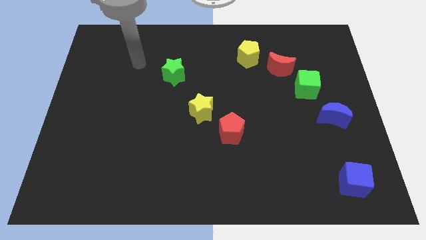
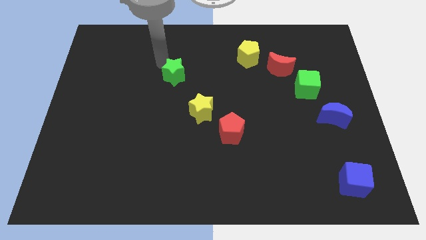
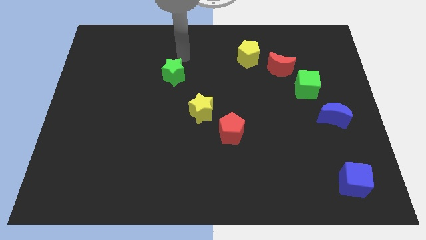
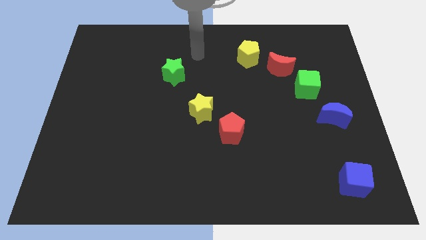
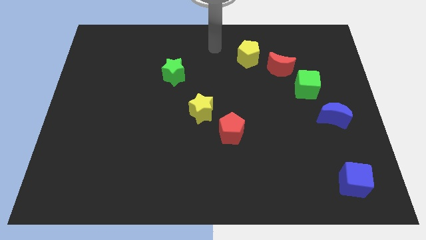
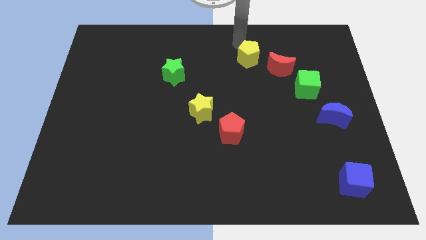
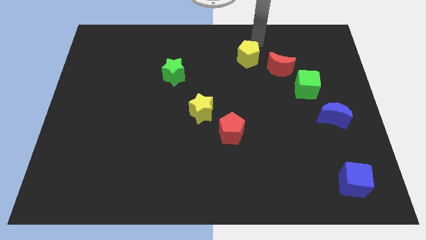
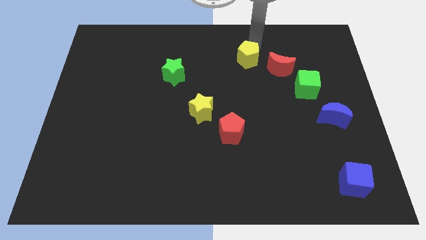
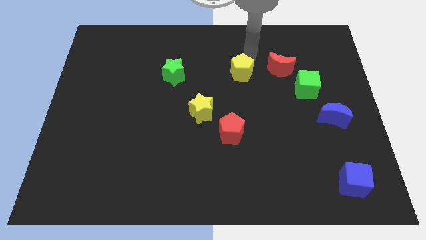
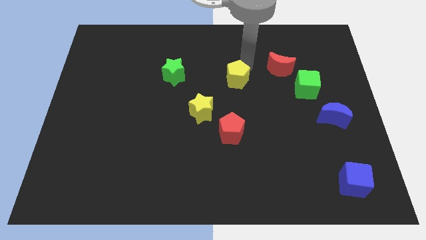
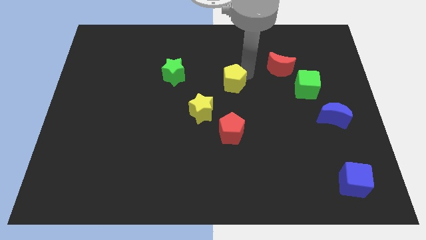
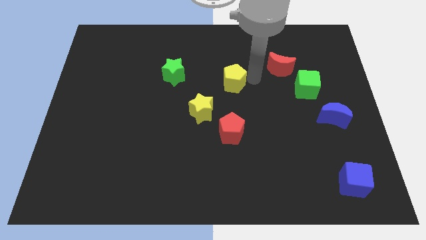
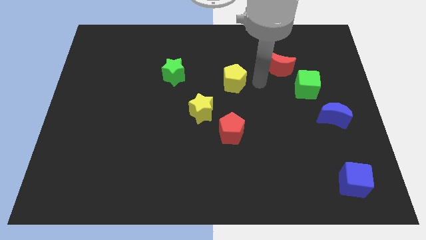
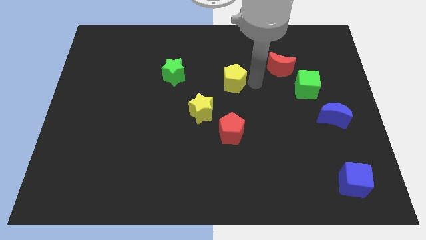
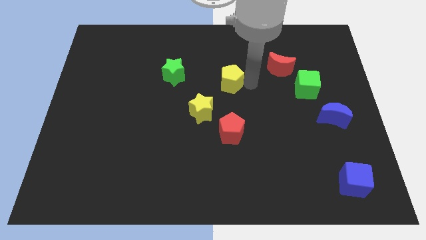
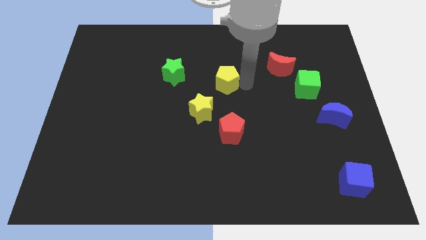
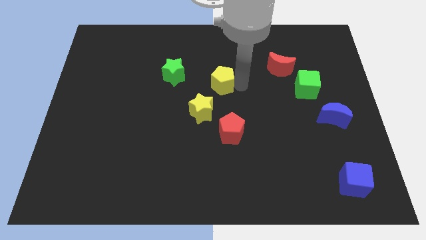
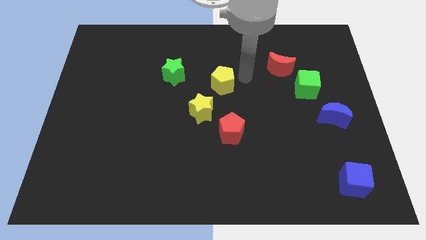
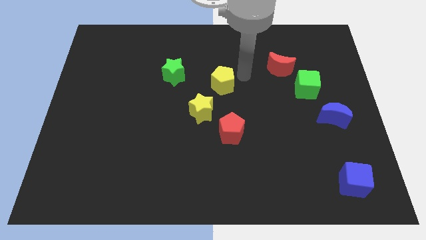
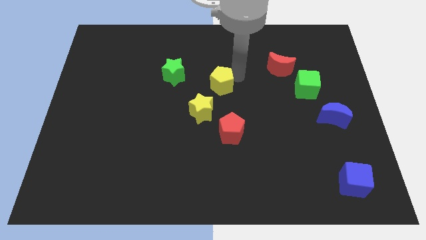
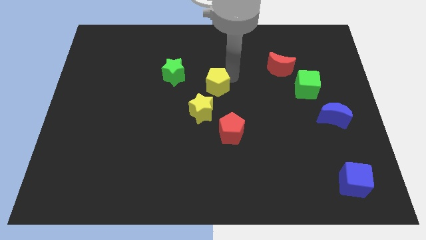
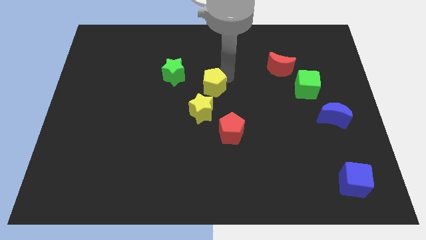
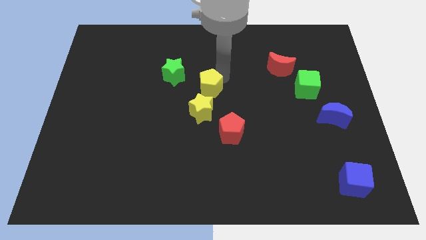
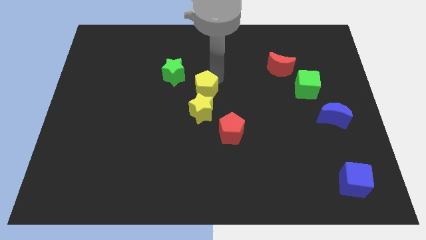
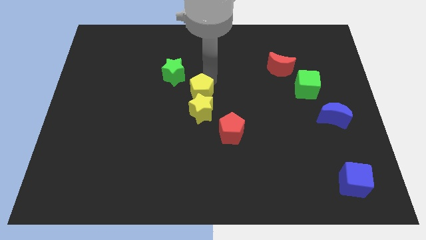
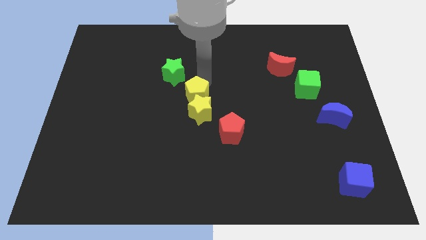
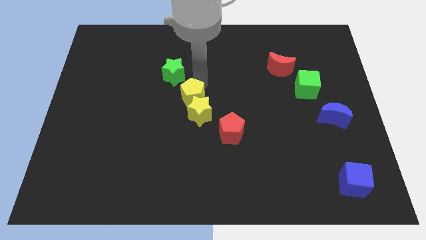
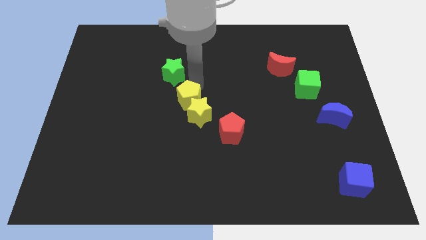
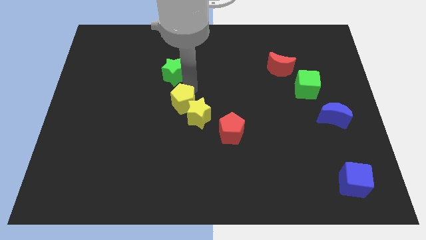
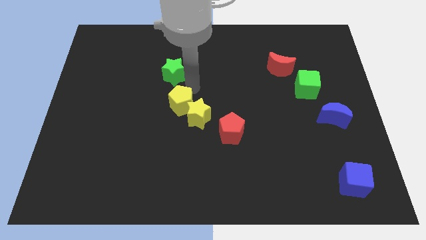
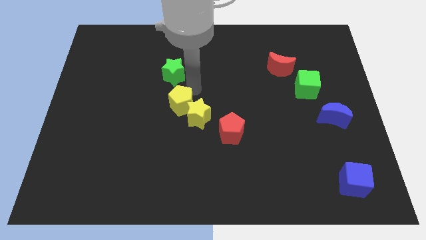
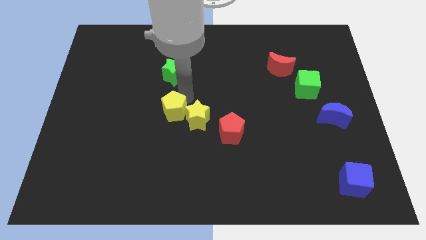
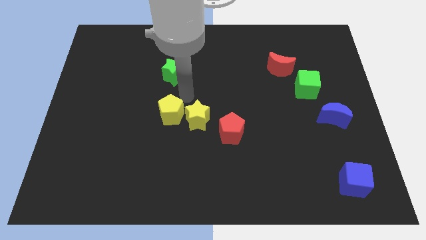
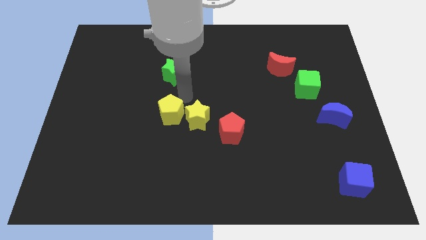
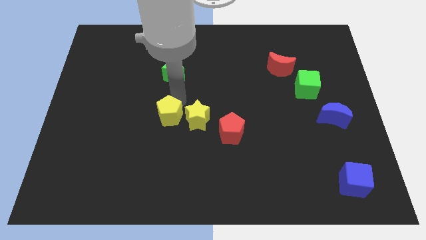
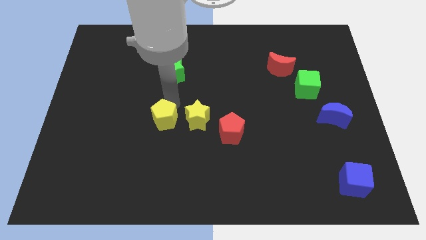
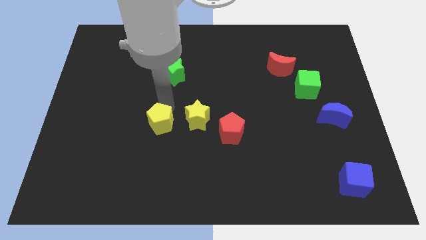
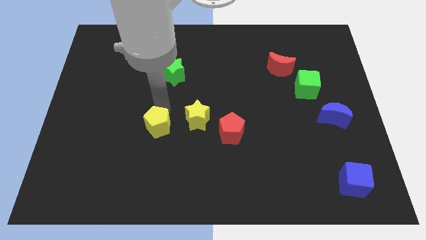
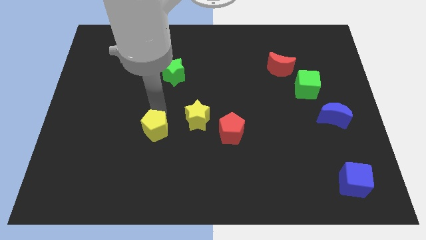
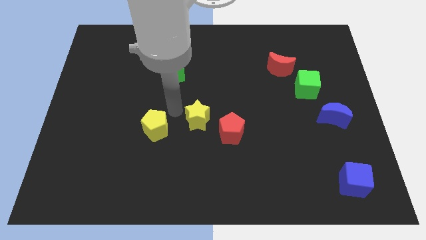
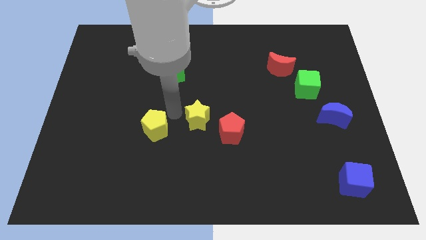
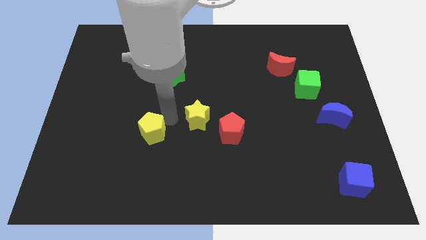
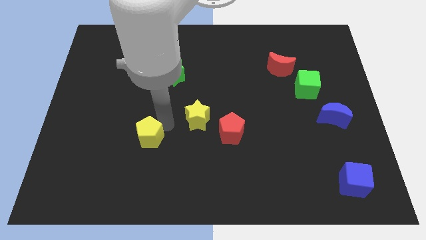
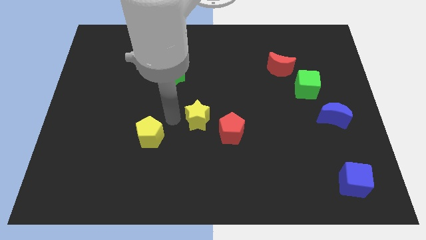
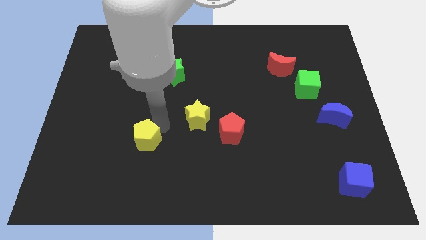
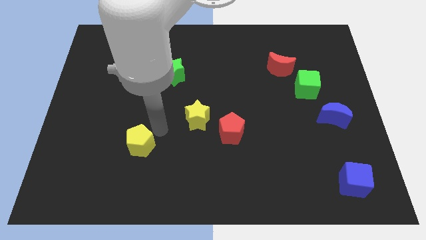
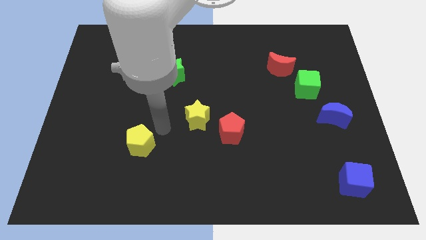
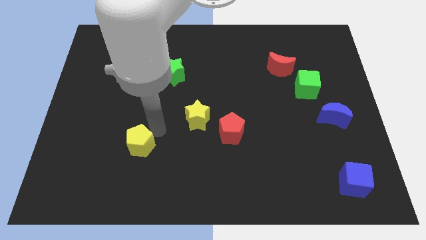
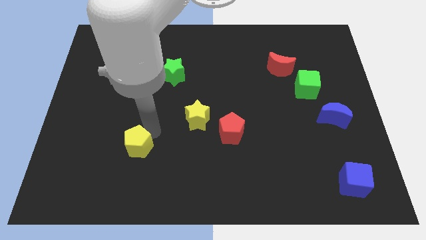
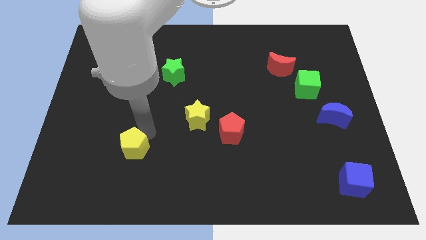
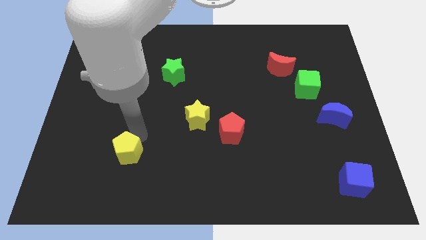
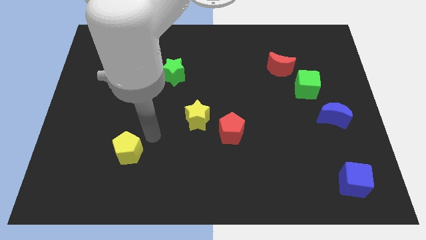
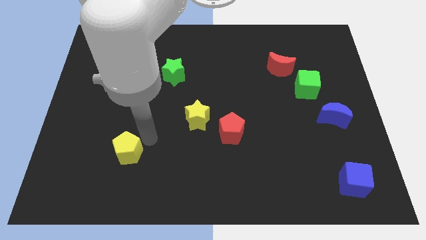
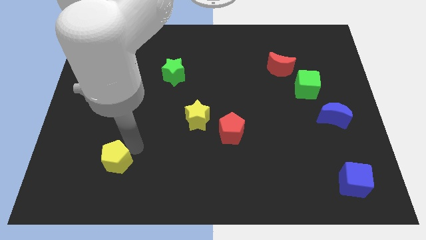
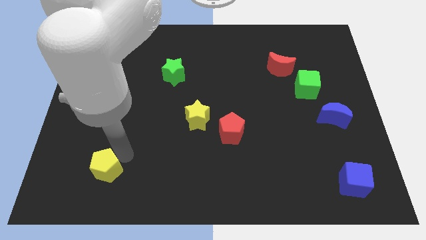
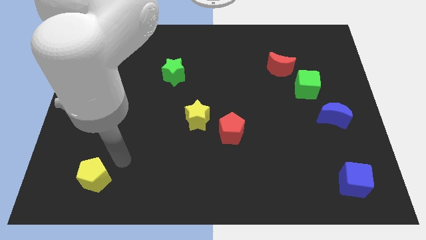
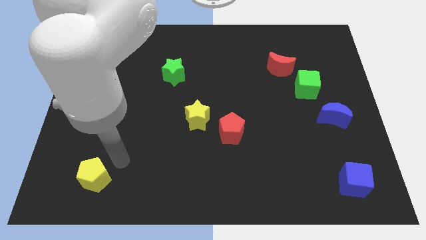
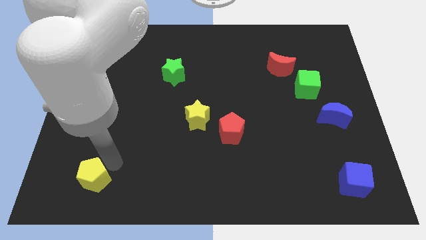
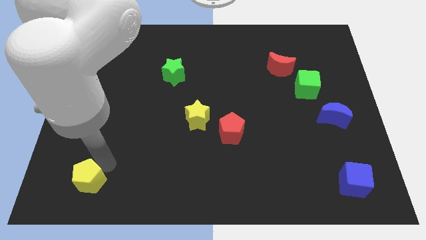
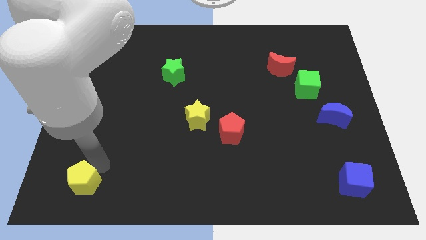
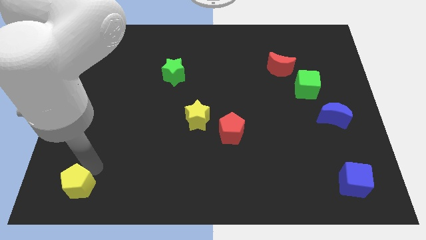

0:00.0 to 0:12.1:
push the yellow pentagon to the lower left corner

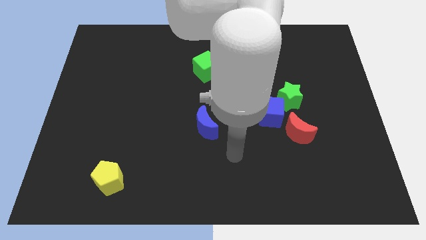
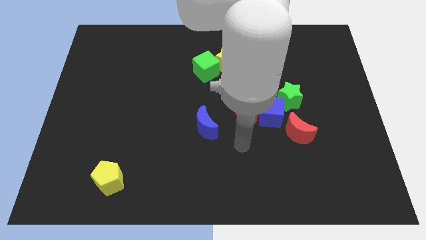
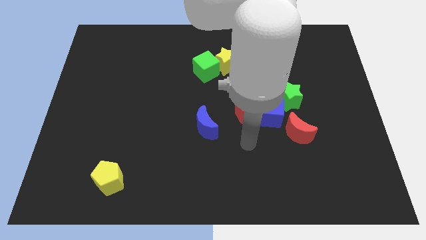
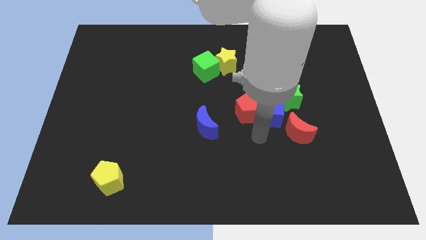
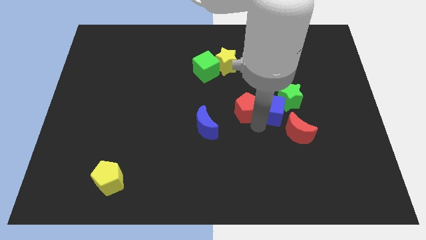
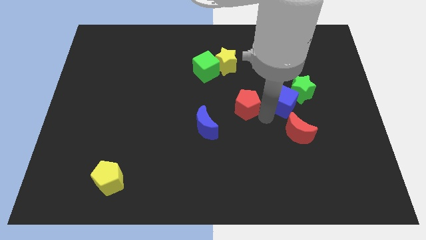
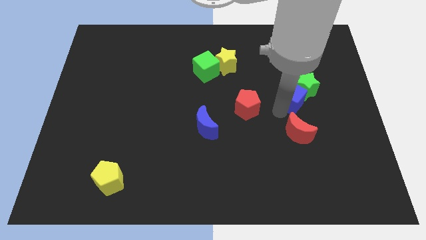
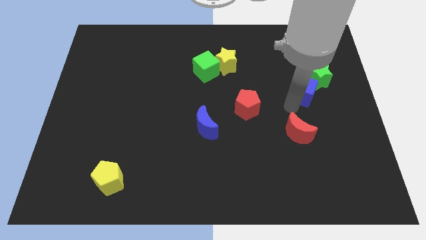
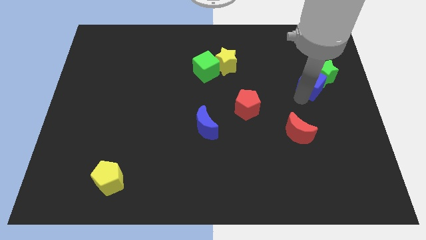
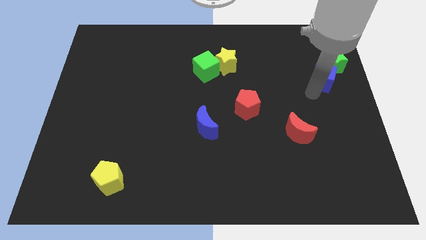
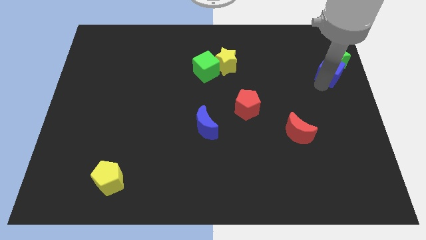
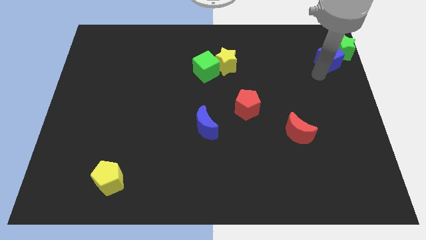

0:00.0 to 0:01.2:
slide the green star to the top right of the board
